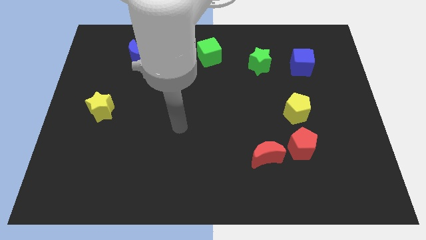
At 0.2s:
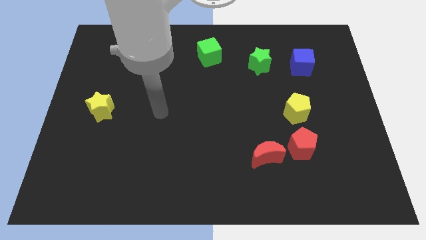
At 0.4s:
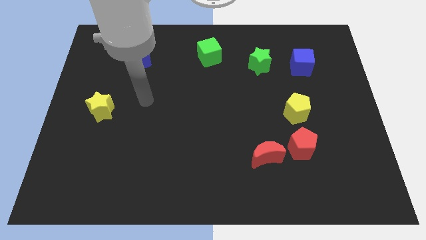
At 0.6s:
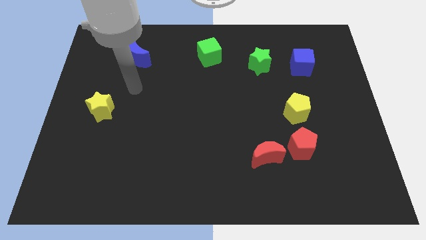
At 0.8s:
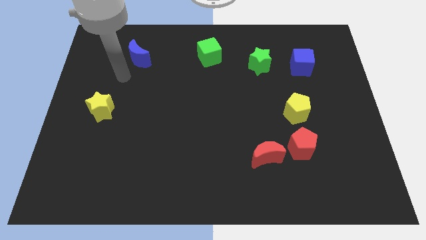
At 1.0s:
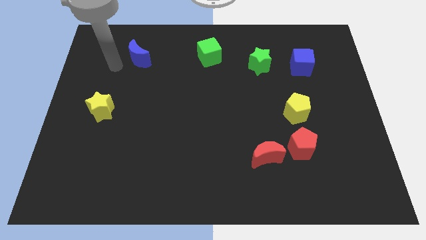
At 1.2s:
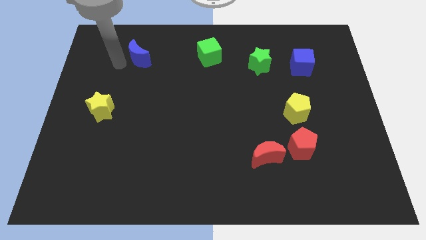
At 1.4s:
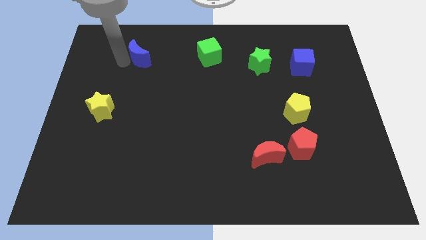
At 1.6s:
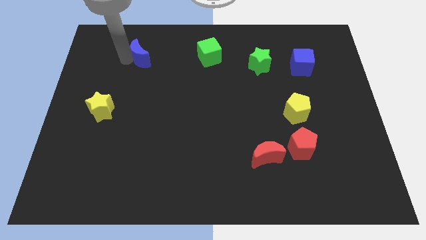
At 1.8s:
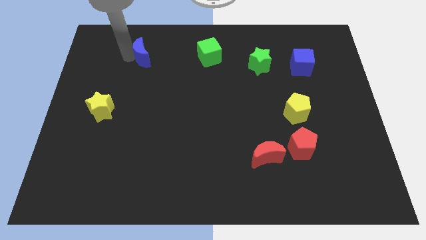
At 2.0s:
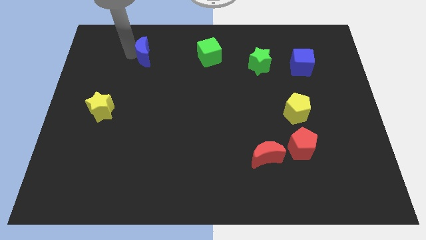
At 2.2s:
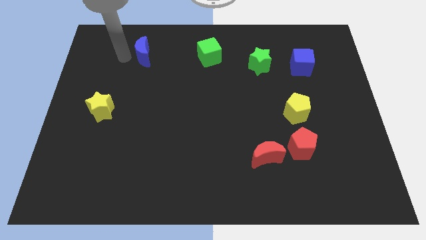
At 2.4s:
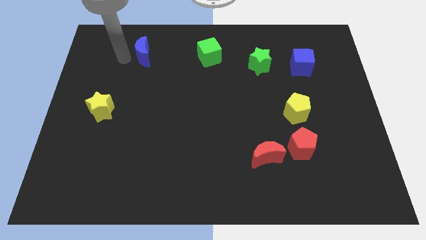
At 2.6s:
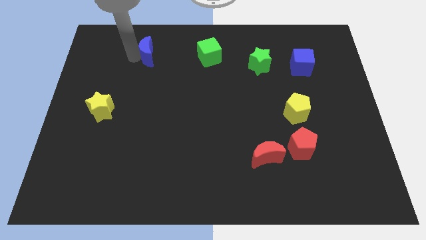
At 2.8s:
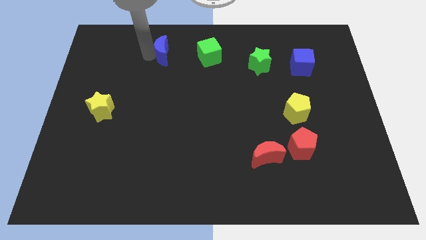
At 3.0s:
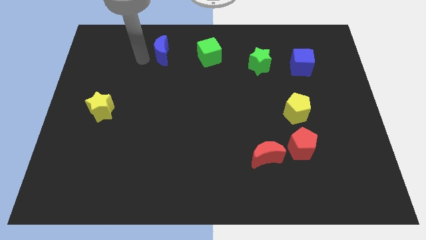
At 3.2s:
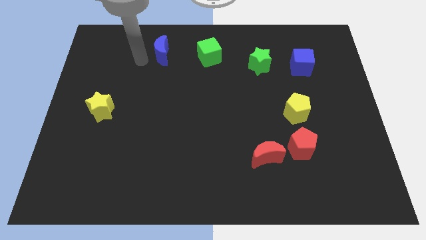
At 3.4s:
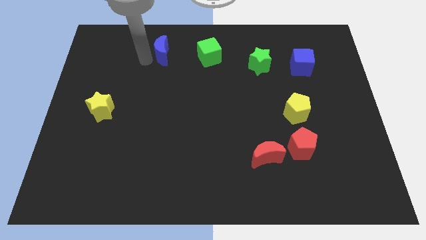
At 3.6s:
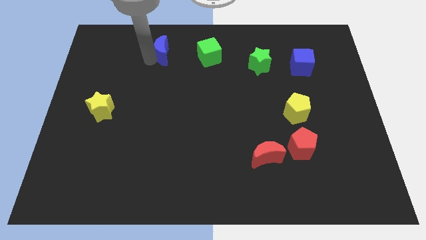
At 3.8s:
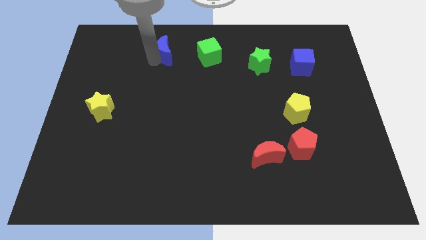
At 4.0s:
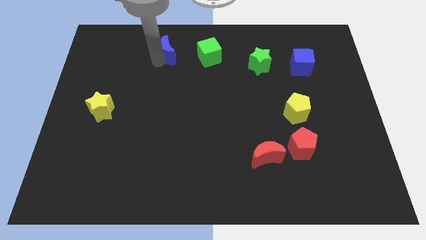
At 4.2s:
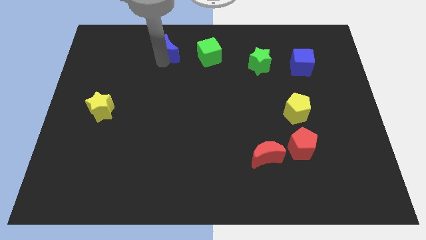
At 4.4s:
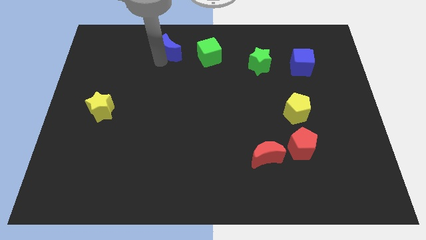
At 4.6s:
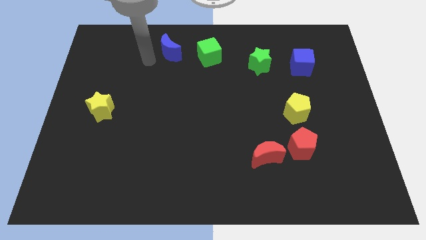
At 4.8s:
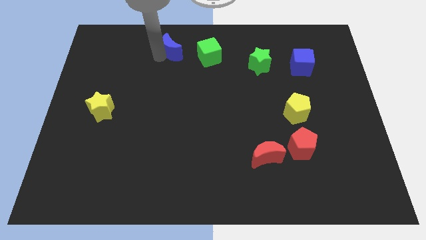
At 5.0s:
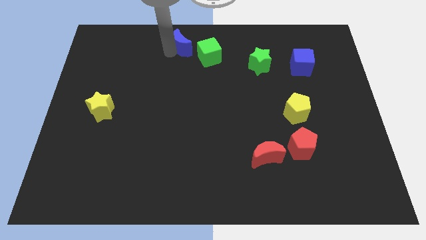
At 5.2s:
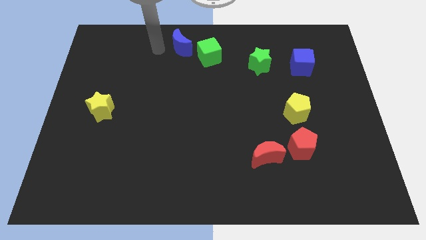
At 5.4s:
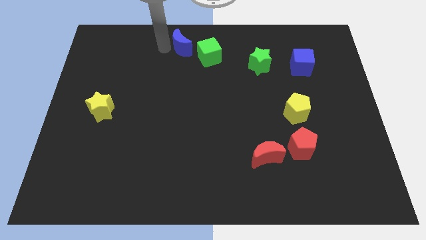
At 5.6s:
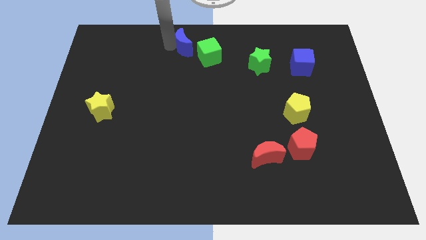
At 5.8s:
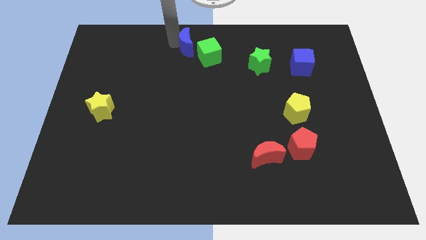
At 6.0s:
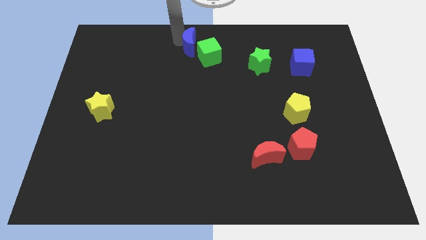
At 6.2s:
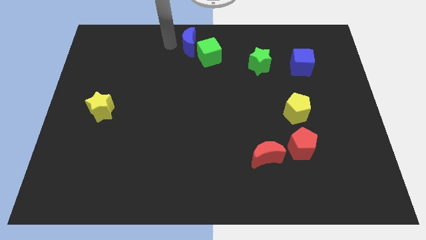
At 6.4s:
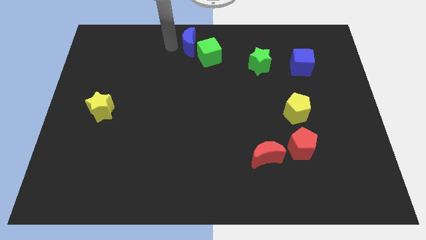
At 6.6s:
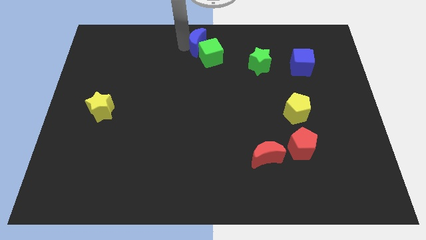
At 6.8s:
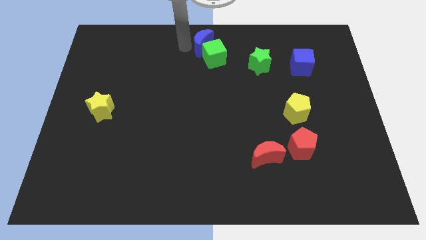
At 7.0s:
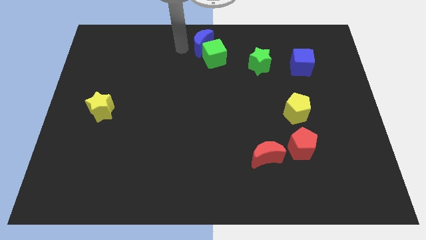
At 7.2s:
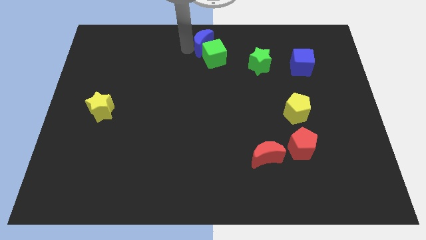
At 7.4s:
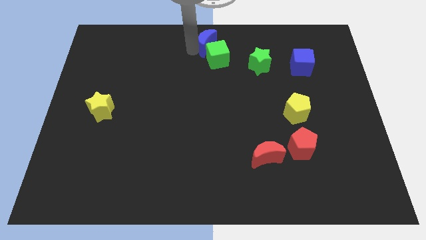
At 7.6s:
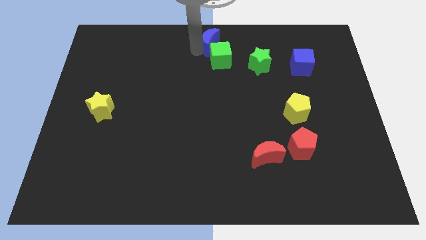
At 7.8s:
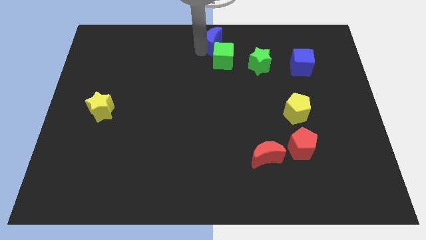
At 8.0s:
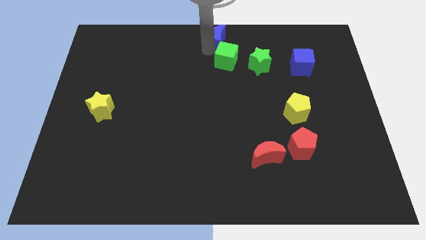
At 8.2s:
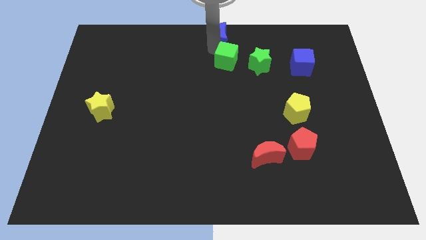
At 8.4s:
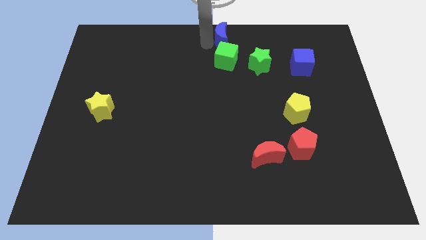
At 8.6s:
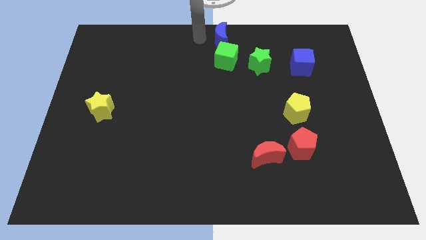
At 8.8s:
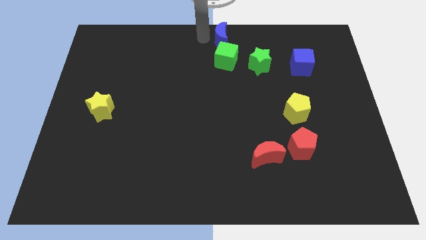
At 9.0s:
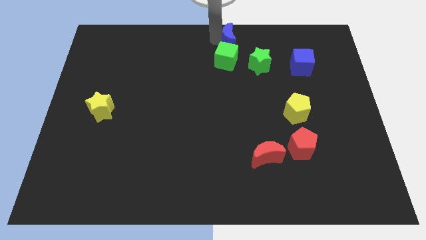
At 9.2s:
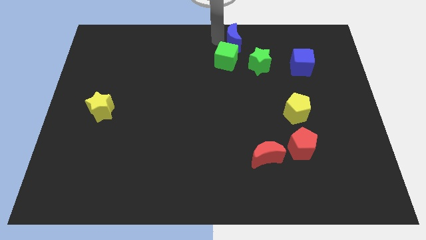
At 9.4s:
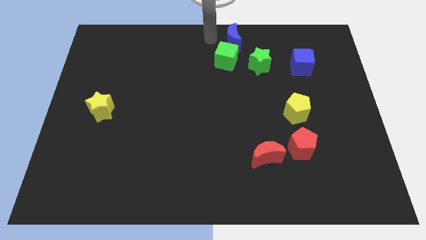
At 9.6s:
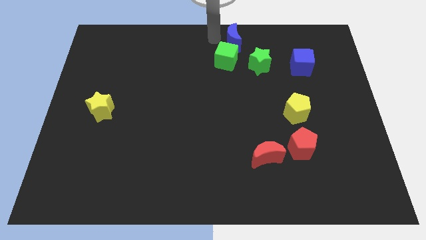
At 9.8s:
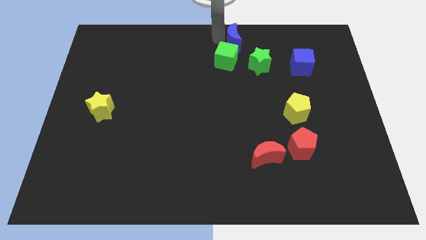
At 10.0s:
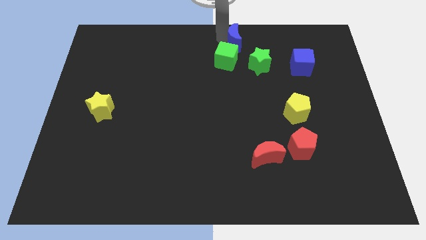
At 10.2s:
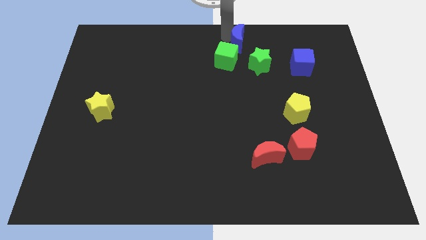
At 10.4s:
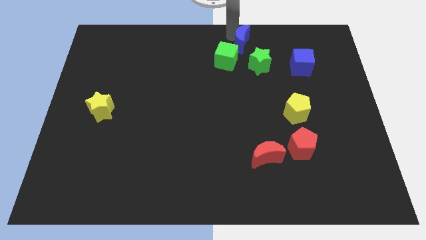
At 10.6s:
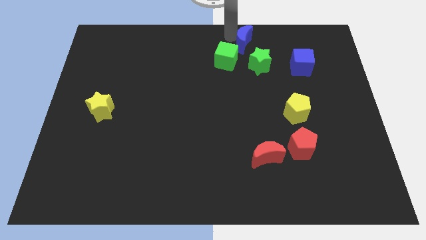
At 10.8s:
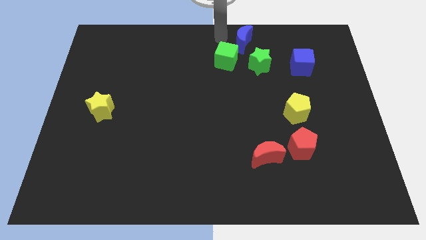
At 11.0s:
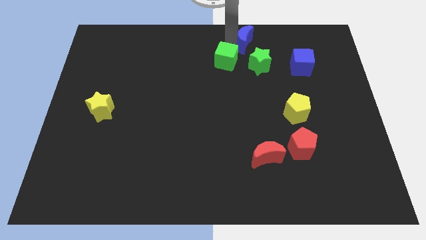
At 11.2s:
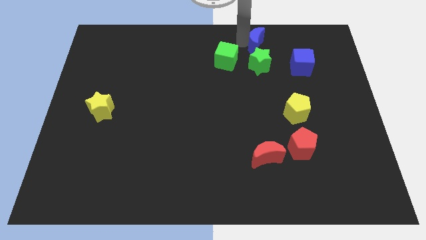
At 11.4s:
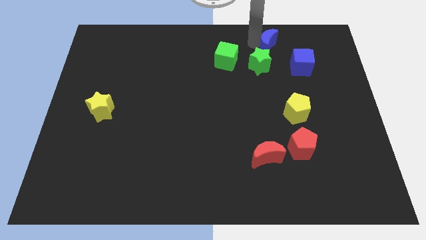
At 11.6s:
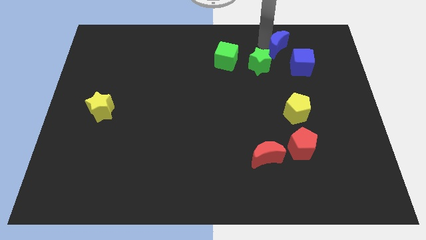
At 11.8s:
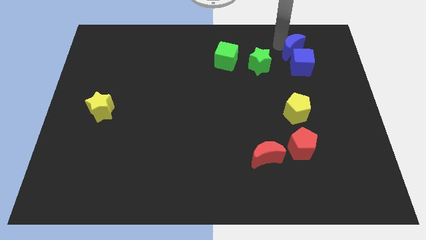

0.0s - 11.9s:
put the blue moon towards the blue cube

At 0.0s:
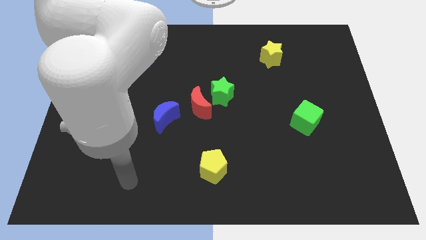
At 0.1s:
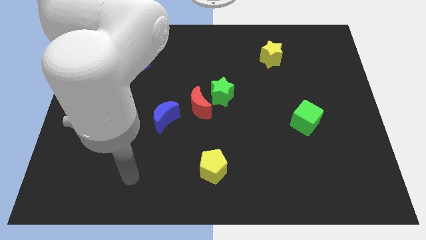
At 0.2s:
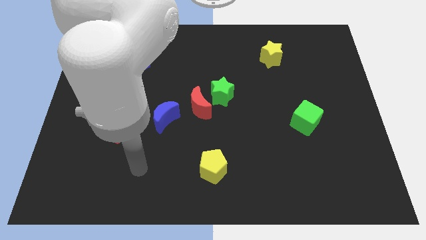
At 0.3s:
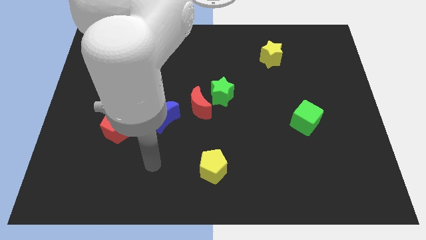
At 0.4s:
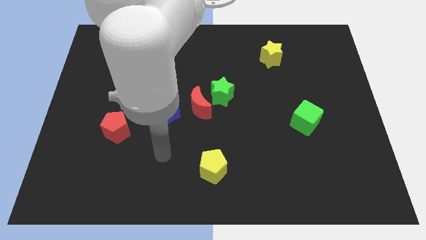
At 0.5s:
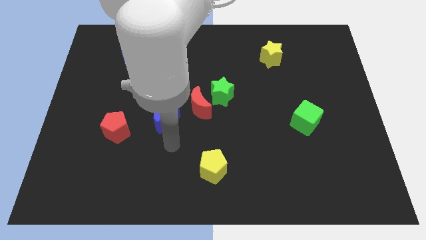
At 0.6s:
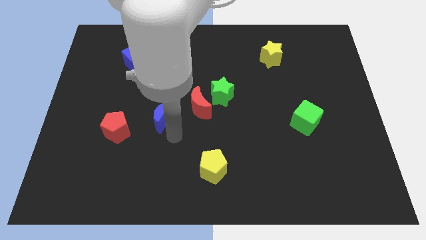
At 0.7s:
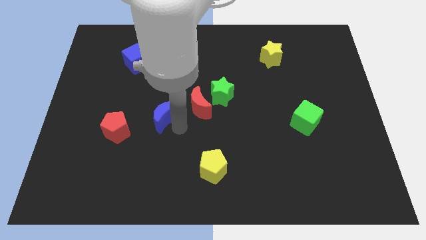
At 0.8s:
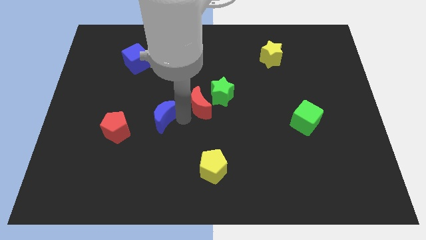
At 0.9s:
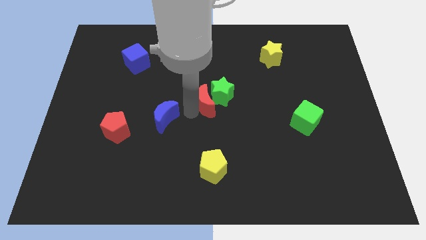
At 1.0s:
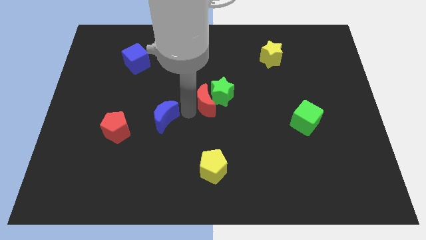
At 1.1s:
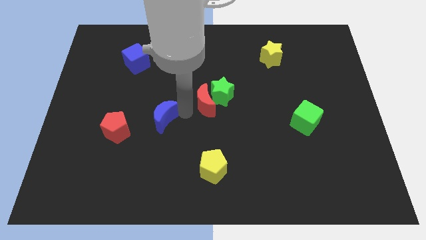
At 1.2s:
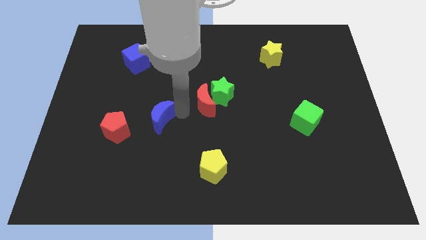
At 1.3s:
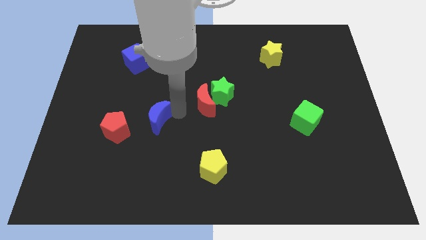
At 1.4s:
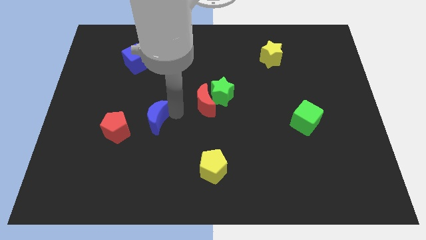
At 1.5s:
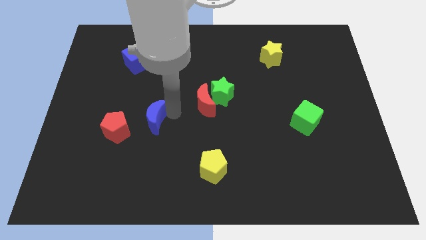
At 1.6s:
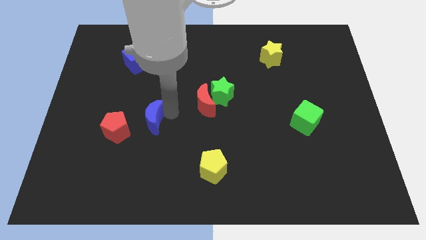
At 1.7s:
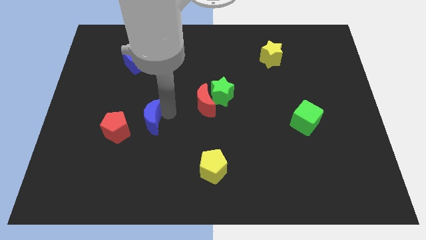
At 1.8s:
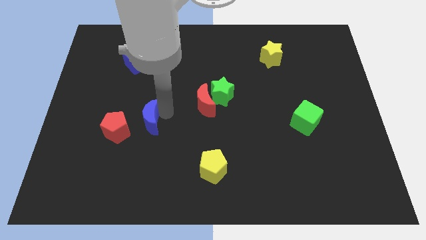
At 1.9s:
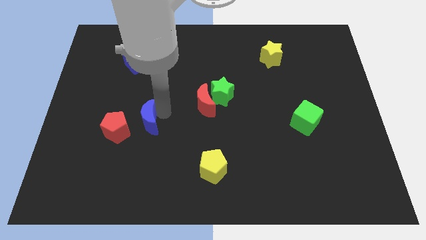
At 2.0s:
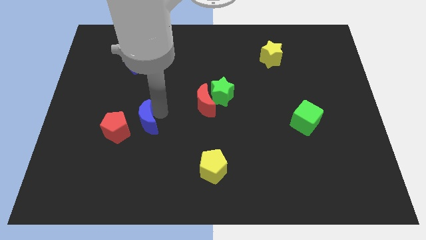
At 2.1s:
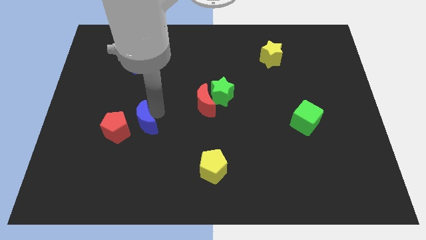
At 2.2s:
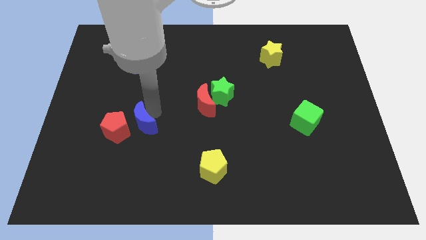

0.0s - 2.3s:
push the blue moon next to the red pentagon
